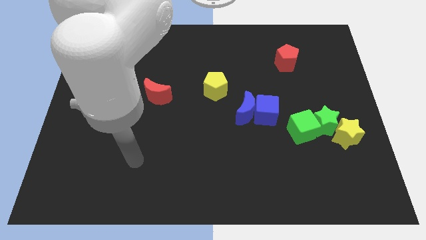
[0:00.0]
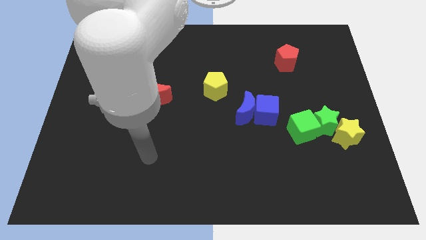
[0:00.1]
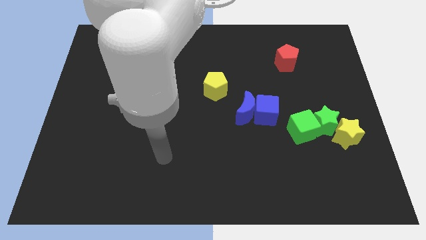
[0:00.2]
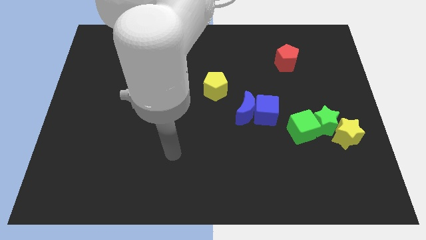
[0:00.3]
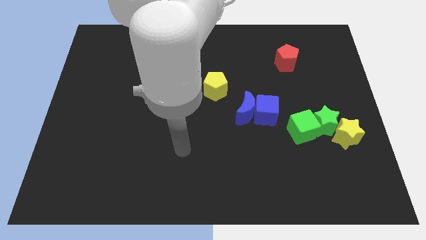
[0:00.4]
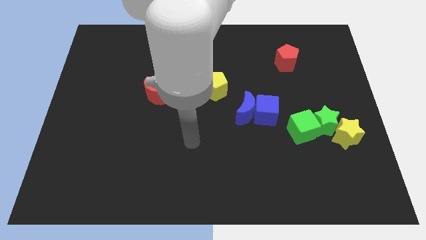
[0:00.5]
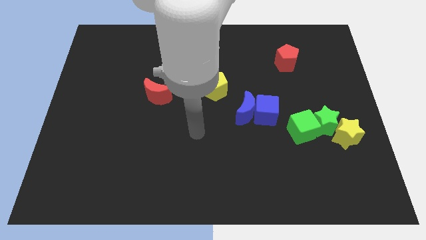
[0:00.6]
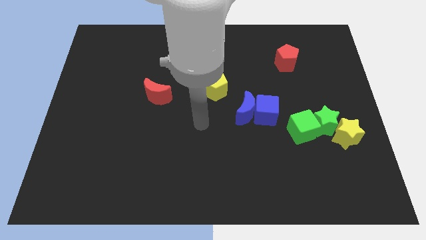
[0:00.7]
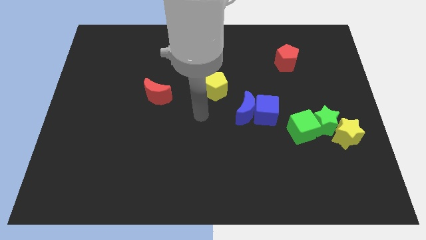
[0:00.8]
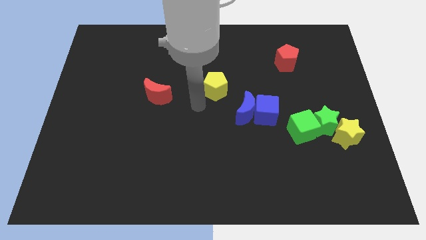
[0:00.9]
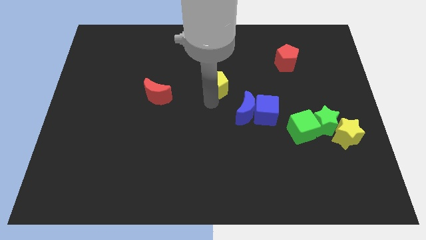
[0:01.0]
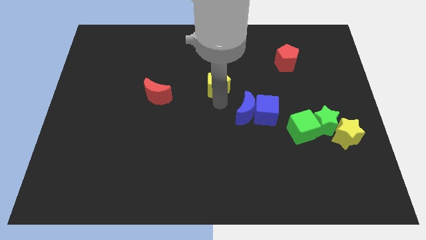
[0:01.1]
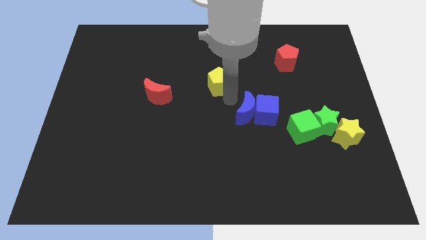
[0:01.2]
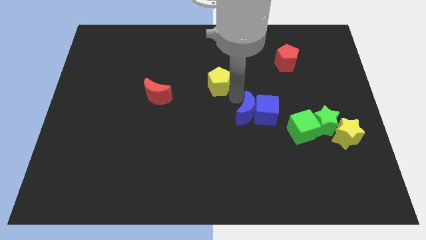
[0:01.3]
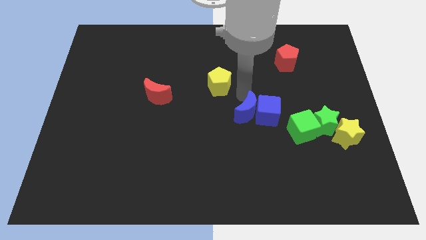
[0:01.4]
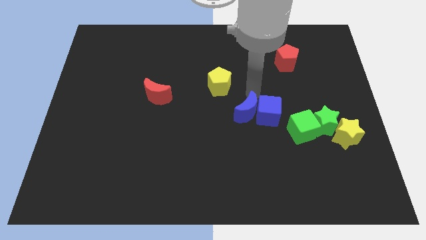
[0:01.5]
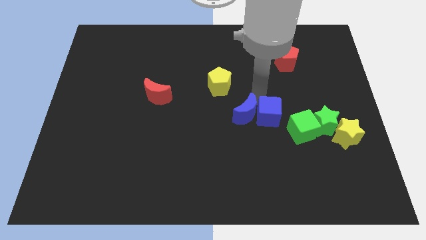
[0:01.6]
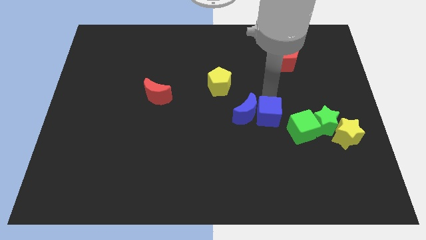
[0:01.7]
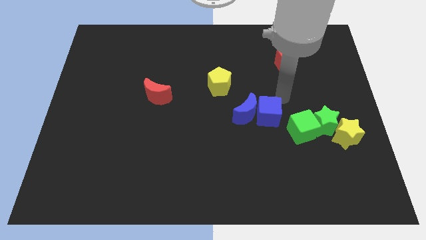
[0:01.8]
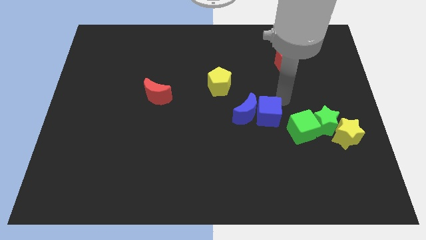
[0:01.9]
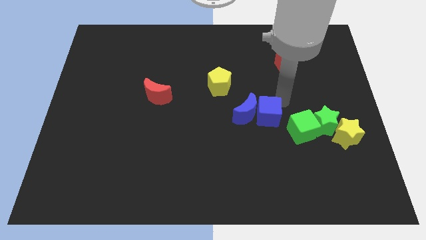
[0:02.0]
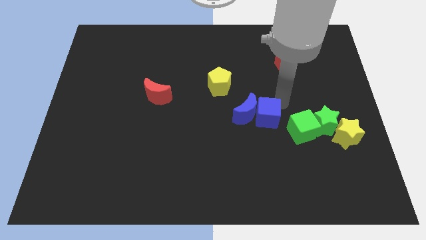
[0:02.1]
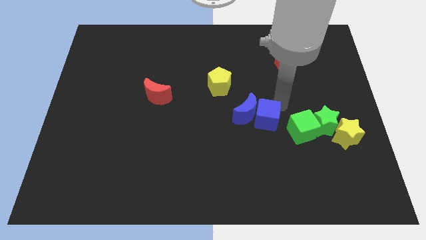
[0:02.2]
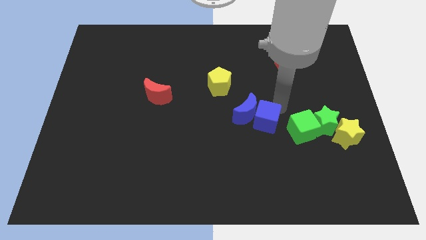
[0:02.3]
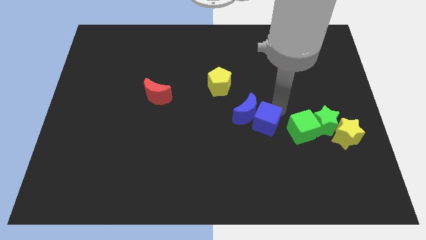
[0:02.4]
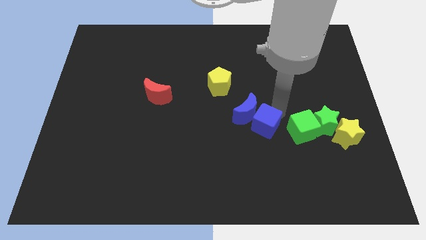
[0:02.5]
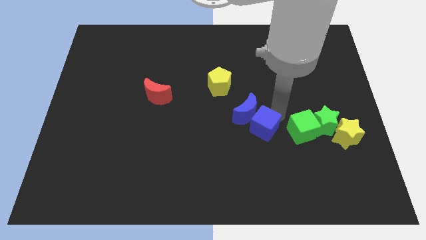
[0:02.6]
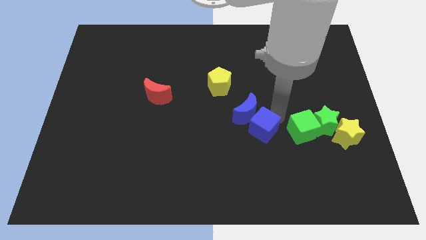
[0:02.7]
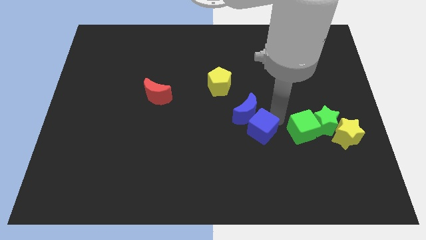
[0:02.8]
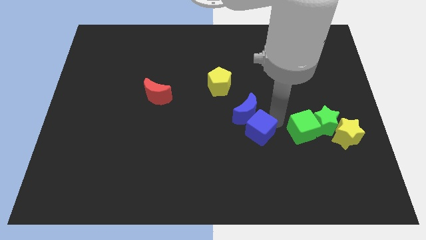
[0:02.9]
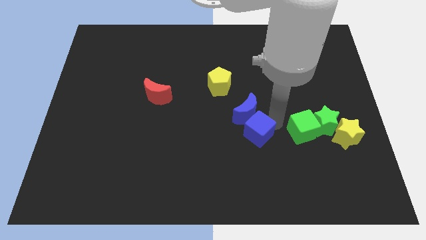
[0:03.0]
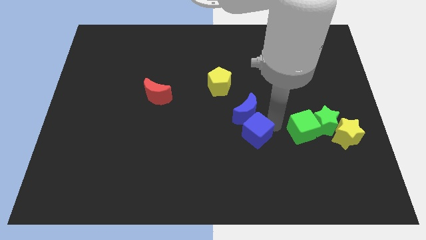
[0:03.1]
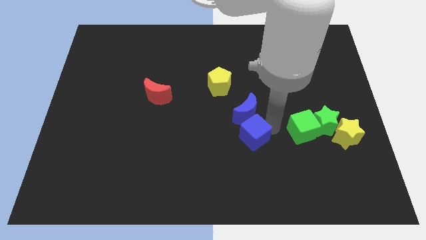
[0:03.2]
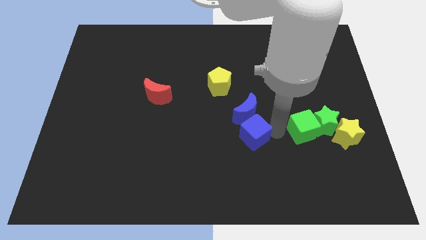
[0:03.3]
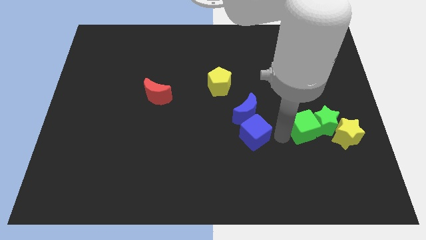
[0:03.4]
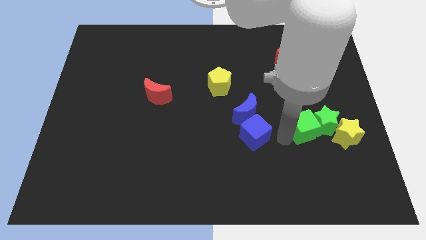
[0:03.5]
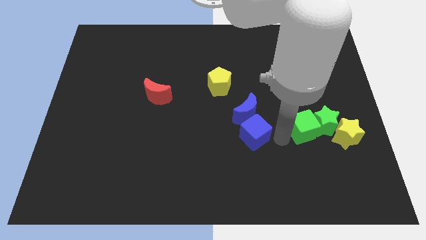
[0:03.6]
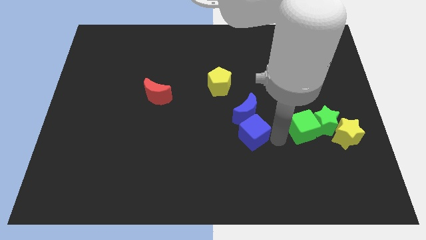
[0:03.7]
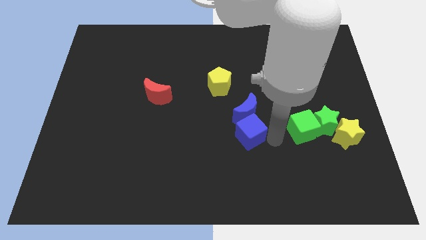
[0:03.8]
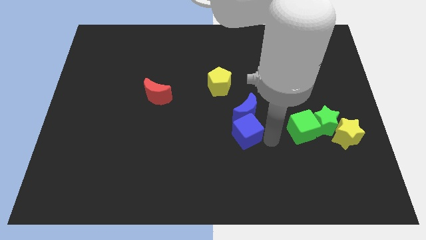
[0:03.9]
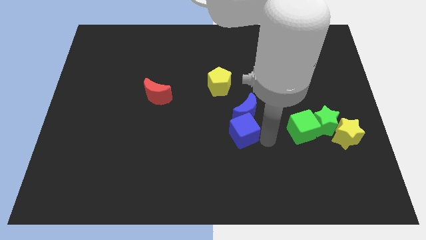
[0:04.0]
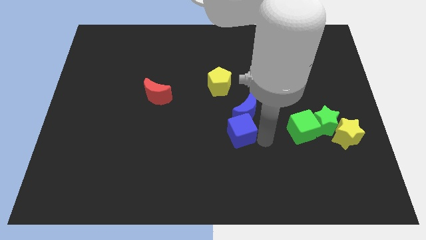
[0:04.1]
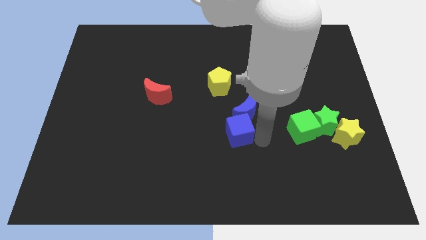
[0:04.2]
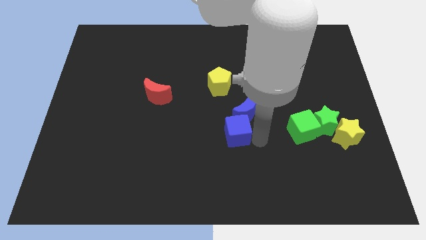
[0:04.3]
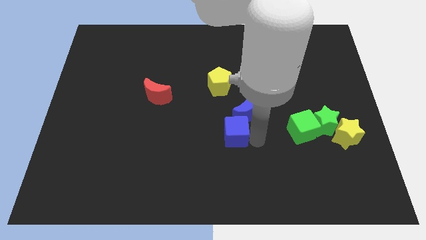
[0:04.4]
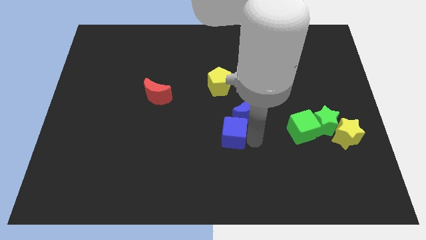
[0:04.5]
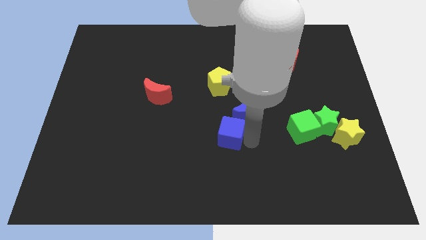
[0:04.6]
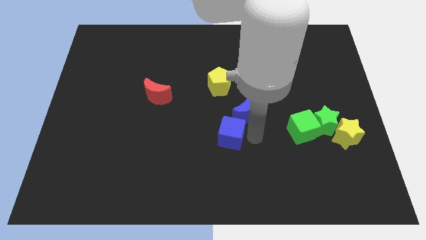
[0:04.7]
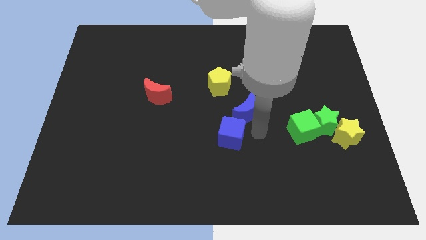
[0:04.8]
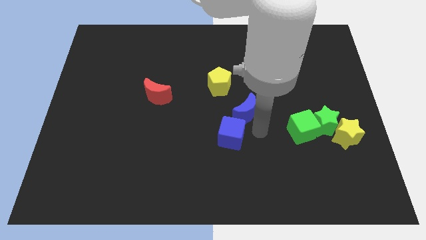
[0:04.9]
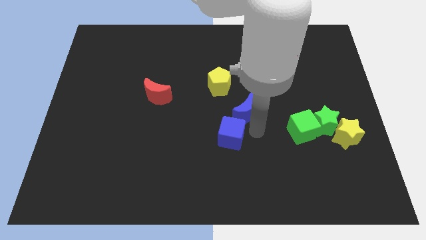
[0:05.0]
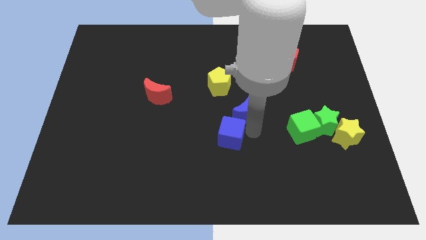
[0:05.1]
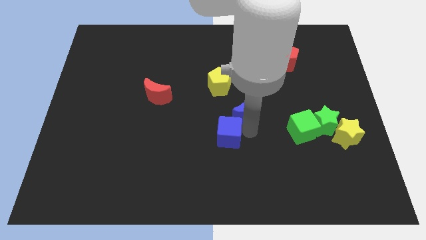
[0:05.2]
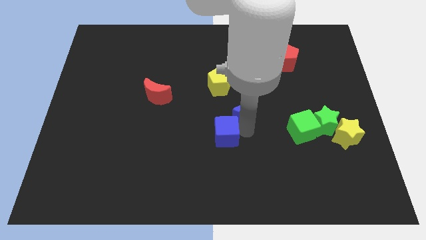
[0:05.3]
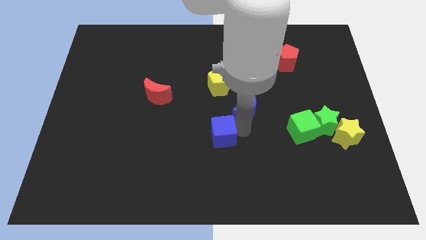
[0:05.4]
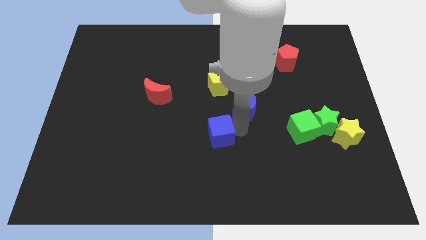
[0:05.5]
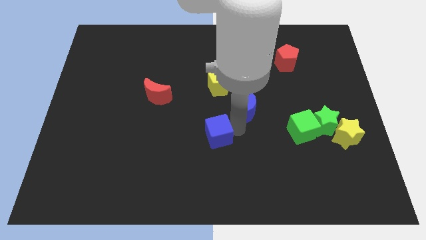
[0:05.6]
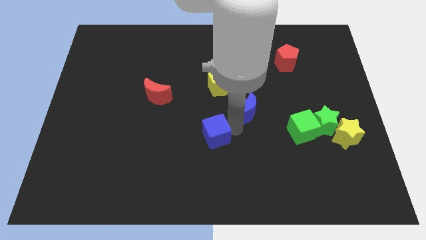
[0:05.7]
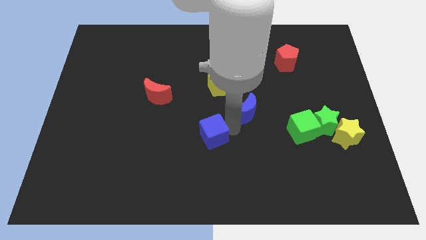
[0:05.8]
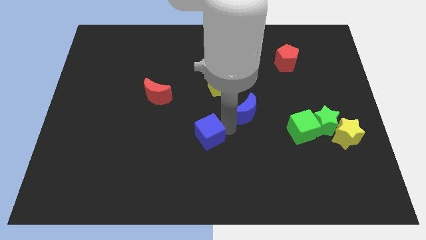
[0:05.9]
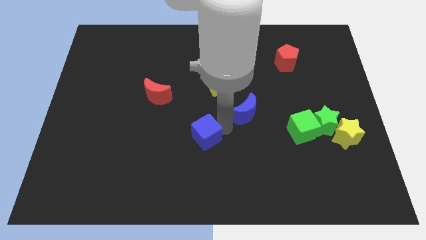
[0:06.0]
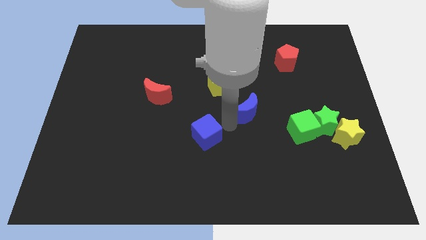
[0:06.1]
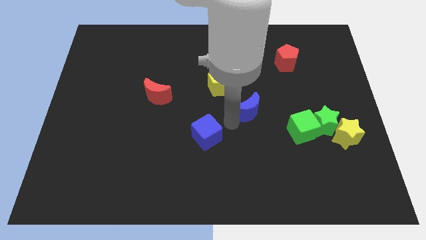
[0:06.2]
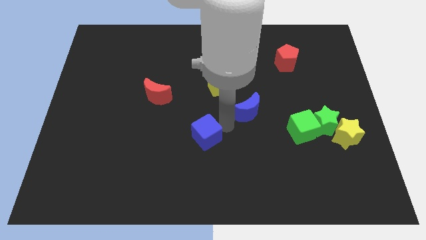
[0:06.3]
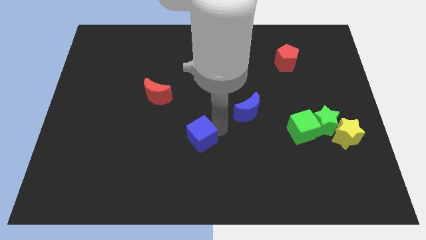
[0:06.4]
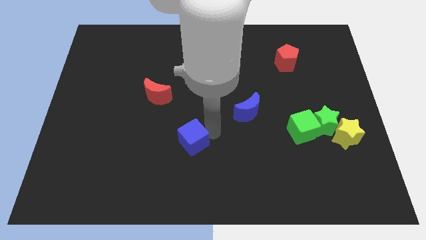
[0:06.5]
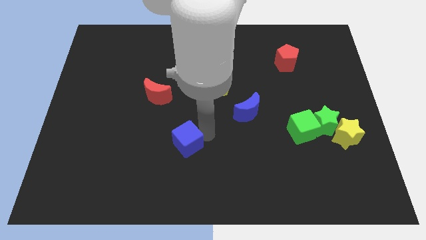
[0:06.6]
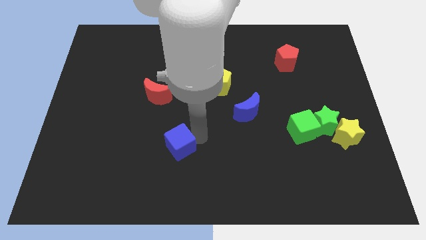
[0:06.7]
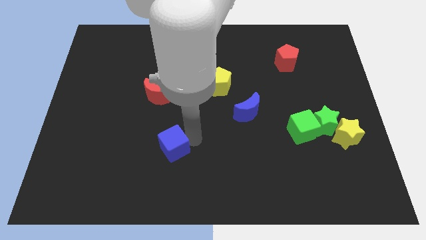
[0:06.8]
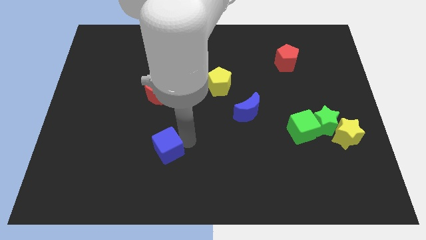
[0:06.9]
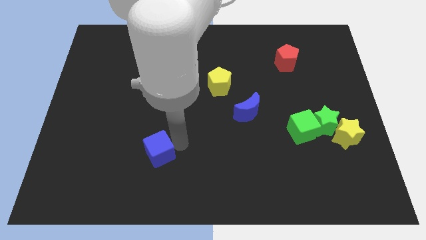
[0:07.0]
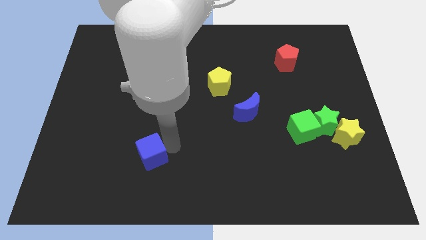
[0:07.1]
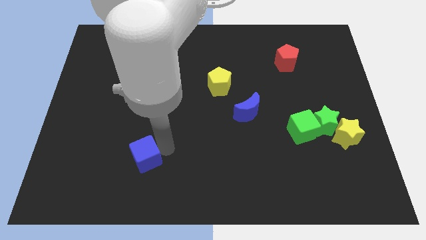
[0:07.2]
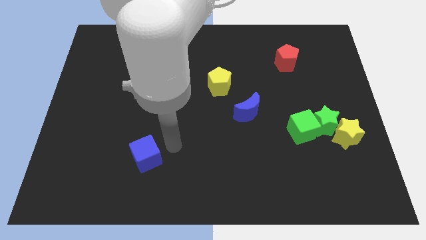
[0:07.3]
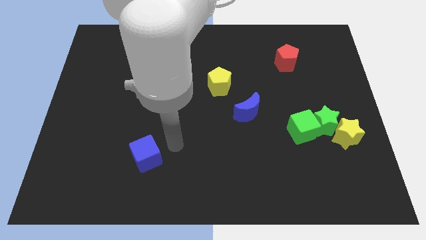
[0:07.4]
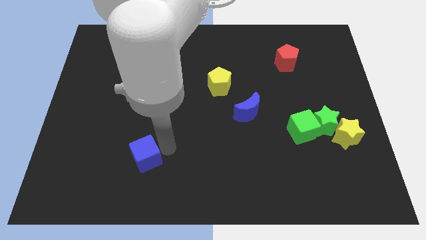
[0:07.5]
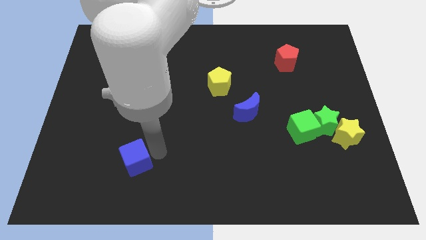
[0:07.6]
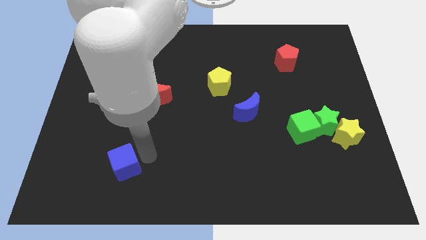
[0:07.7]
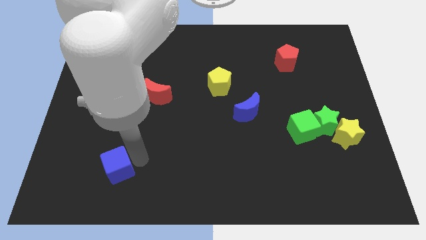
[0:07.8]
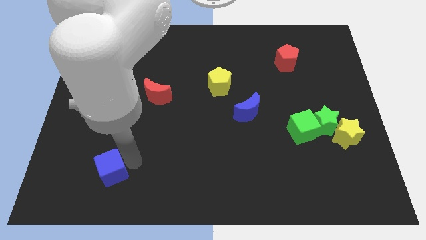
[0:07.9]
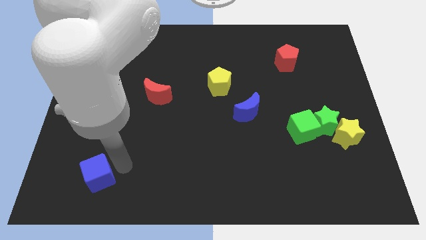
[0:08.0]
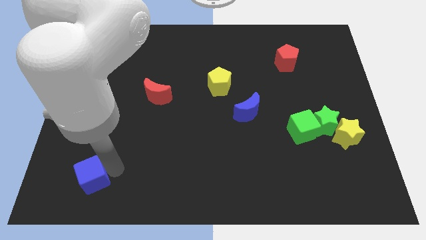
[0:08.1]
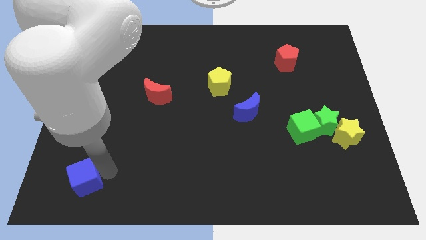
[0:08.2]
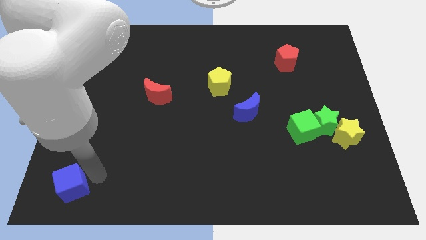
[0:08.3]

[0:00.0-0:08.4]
slide the blue cube to the bottom left
